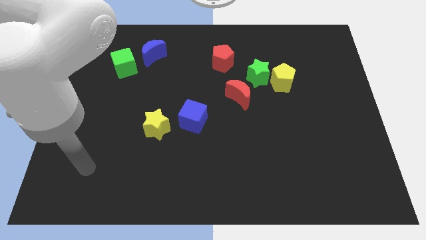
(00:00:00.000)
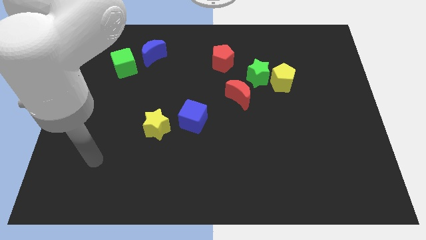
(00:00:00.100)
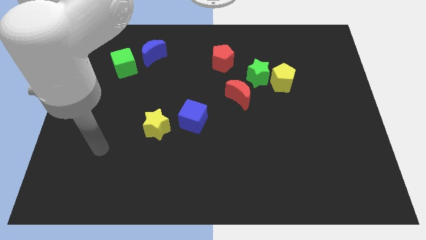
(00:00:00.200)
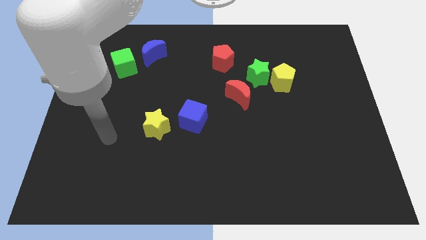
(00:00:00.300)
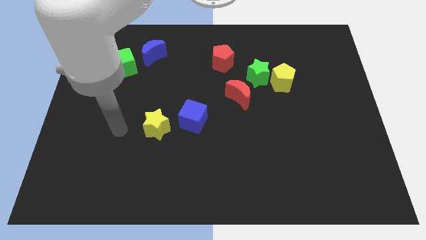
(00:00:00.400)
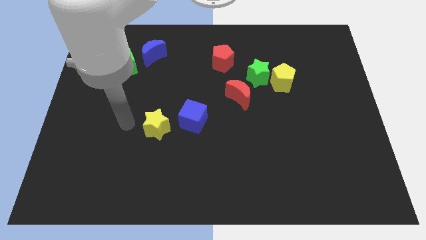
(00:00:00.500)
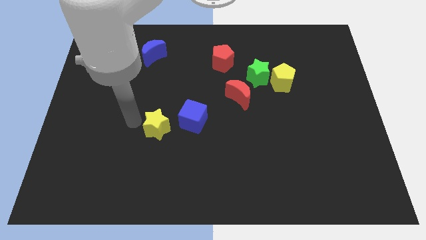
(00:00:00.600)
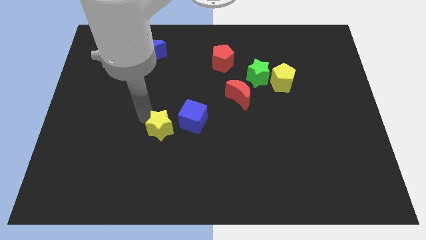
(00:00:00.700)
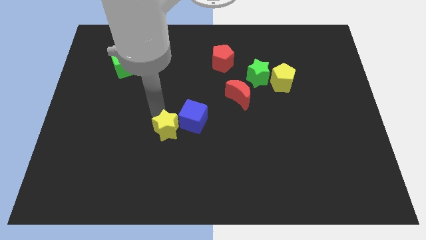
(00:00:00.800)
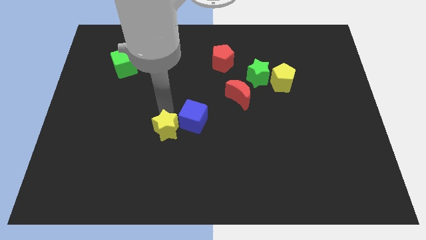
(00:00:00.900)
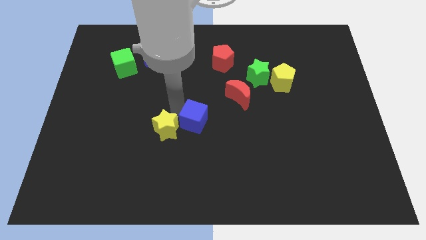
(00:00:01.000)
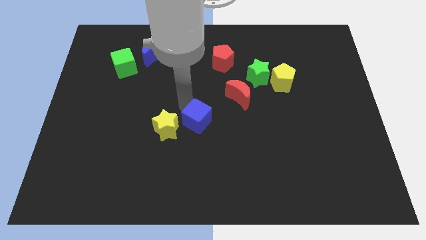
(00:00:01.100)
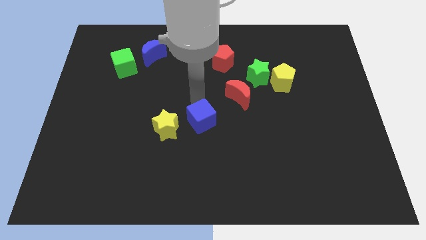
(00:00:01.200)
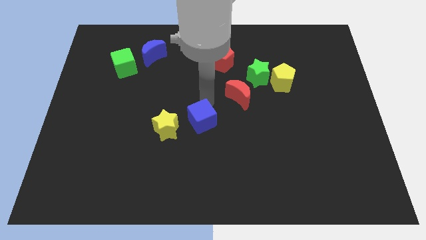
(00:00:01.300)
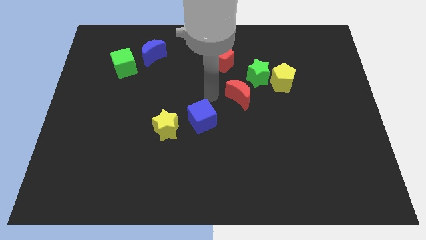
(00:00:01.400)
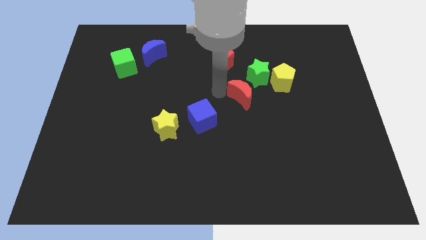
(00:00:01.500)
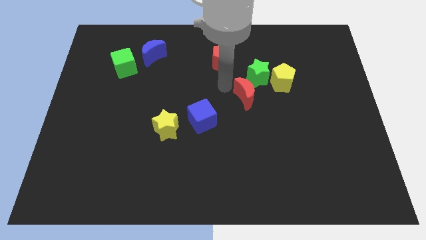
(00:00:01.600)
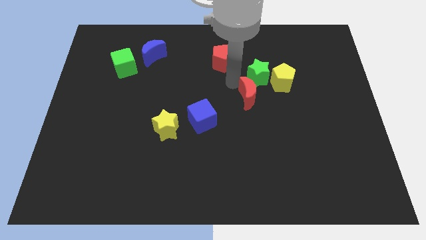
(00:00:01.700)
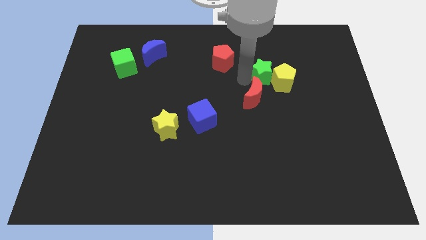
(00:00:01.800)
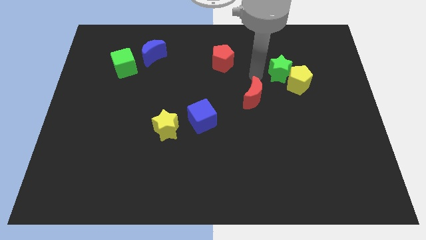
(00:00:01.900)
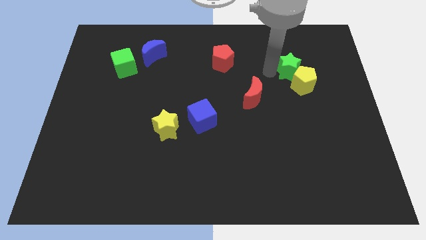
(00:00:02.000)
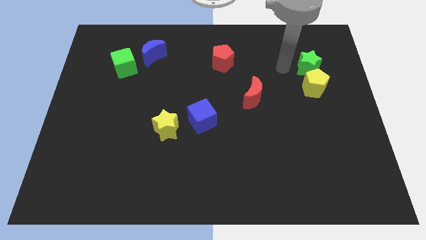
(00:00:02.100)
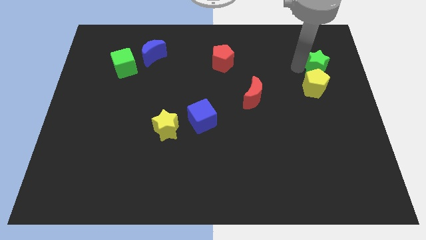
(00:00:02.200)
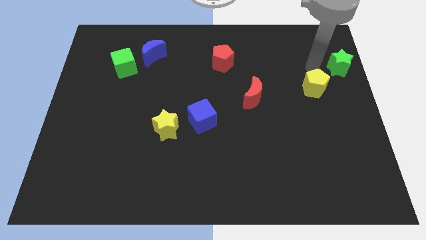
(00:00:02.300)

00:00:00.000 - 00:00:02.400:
move the yellow pentagon away from the green star

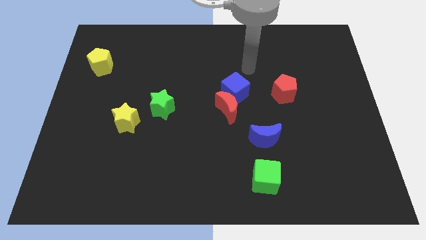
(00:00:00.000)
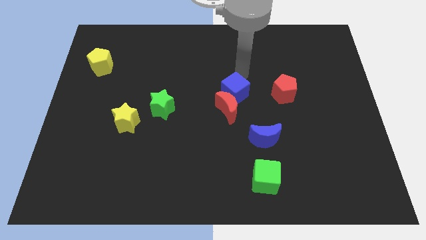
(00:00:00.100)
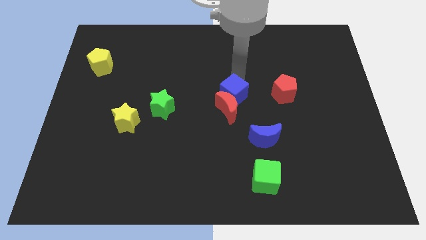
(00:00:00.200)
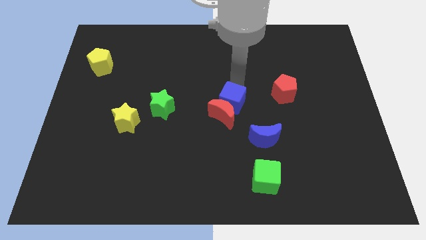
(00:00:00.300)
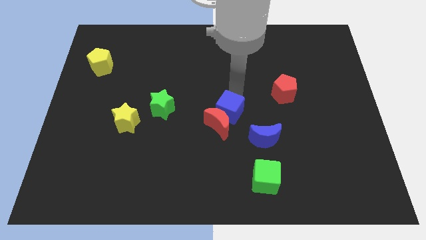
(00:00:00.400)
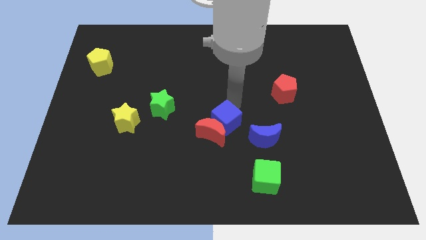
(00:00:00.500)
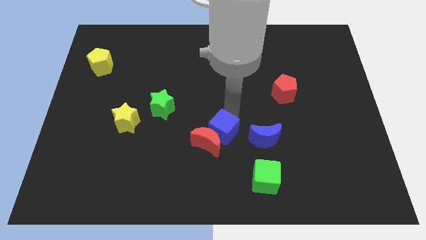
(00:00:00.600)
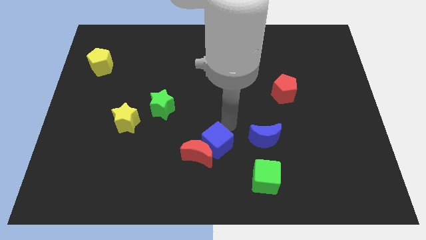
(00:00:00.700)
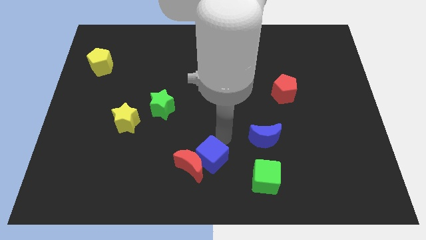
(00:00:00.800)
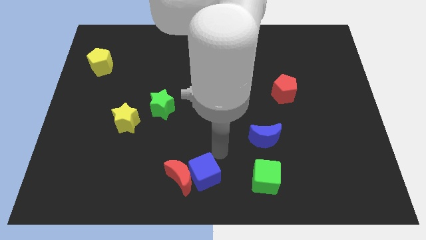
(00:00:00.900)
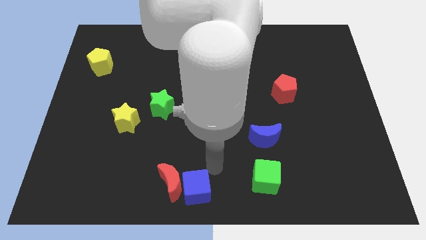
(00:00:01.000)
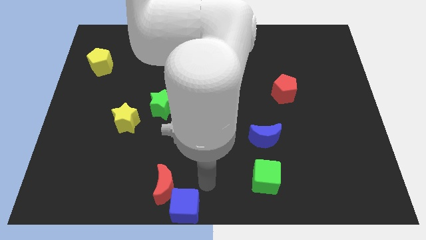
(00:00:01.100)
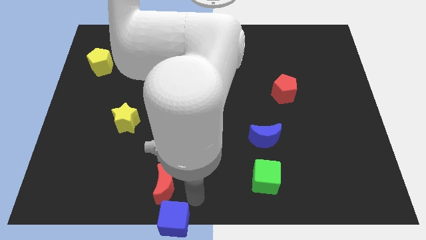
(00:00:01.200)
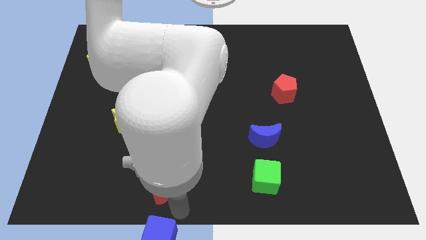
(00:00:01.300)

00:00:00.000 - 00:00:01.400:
separate the red moon from the blue cube

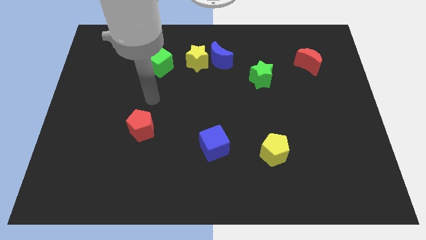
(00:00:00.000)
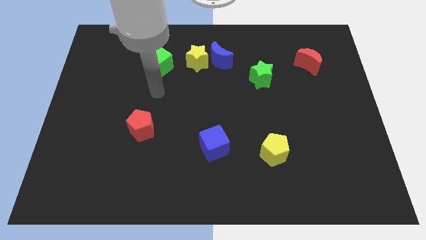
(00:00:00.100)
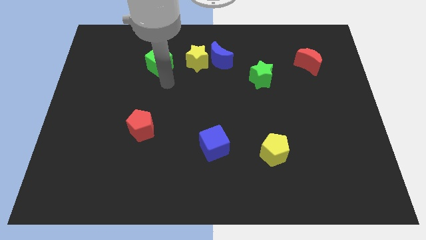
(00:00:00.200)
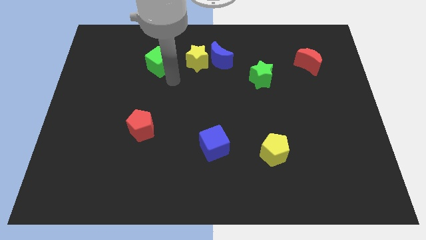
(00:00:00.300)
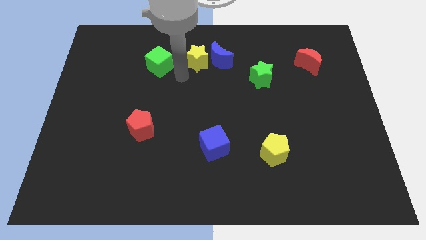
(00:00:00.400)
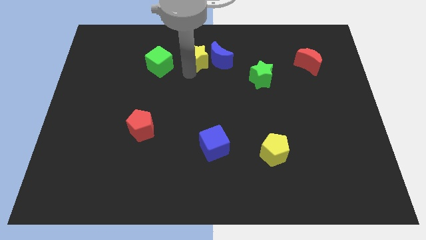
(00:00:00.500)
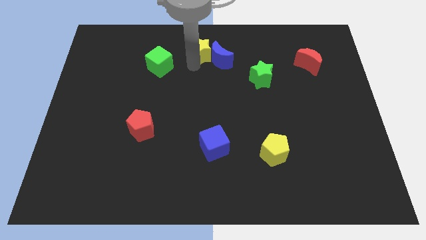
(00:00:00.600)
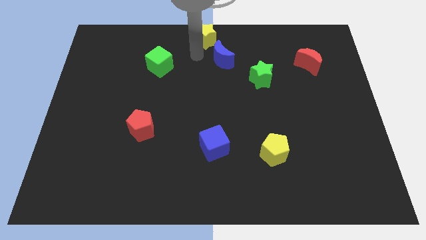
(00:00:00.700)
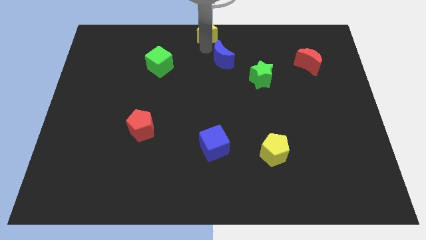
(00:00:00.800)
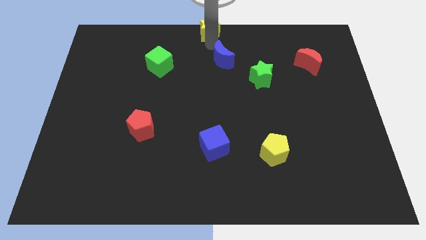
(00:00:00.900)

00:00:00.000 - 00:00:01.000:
separate the blue moon from the yellow star

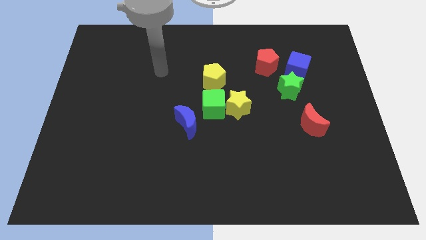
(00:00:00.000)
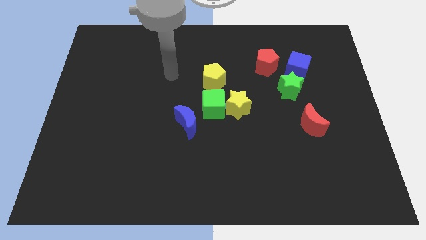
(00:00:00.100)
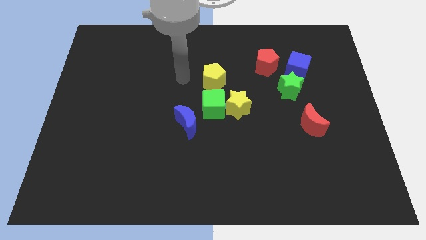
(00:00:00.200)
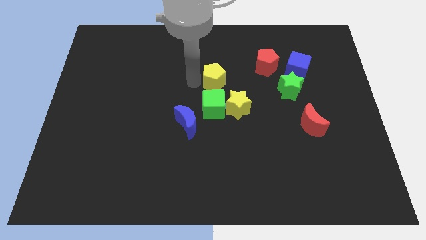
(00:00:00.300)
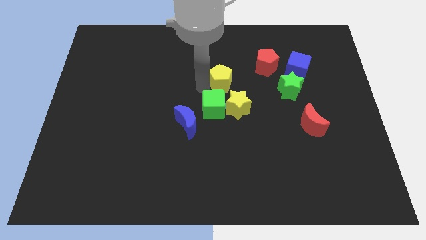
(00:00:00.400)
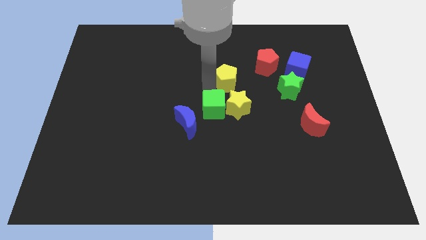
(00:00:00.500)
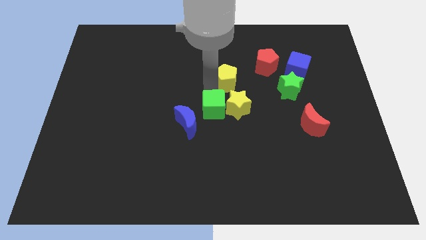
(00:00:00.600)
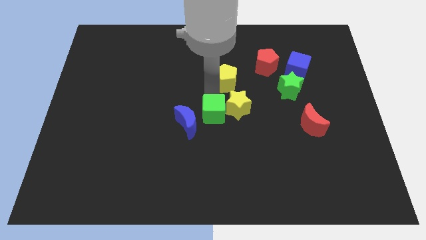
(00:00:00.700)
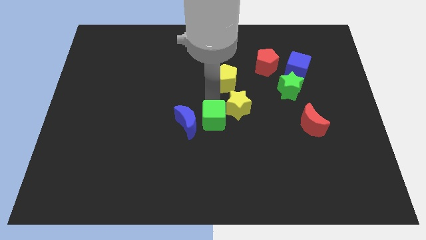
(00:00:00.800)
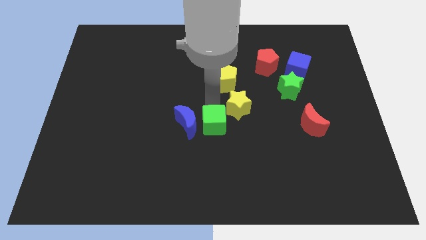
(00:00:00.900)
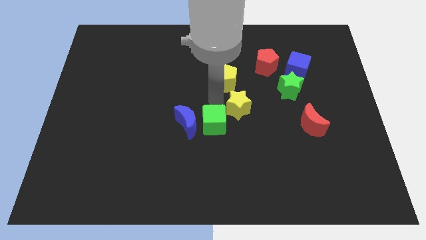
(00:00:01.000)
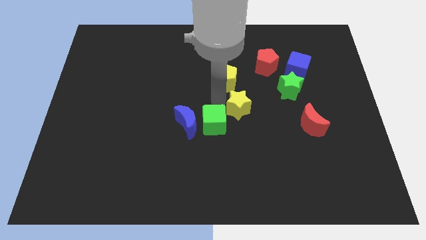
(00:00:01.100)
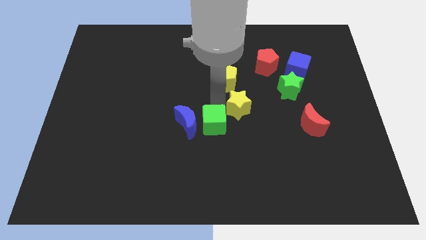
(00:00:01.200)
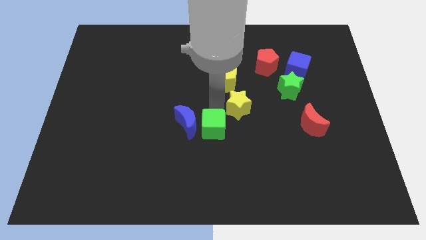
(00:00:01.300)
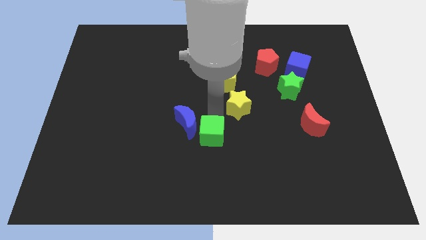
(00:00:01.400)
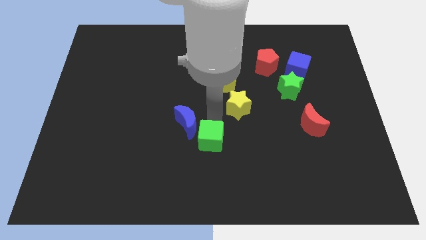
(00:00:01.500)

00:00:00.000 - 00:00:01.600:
move the green cube away from the yellow star, blue moon, and yellow pentagon

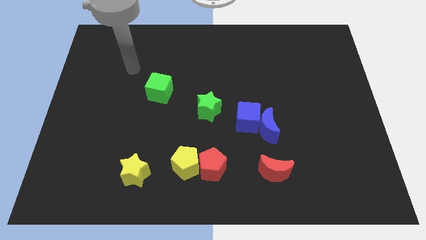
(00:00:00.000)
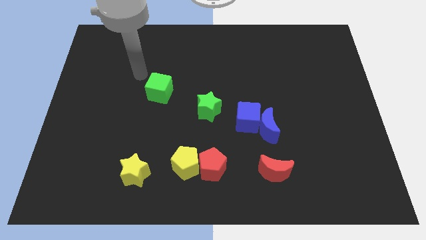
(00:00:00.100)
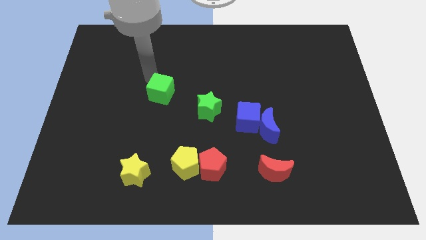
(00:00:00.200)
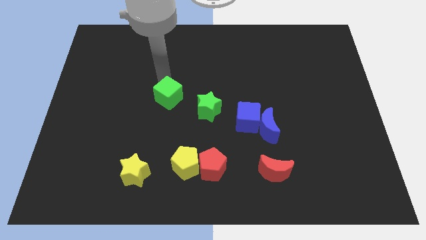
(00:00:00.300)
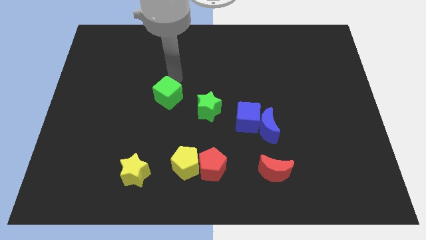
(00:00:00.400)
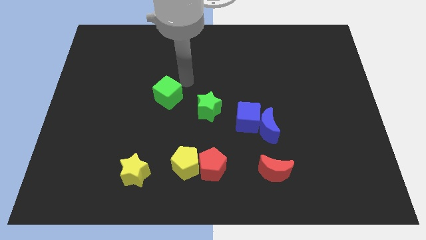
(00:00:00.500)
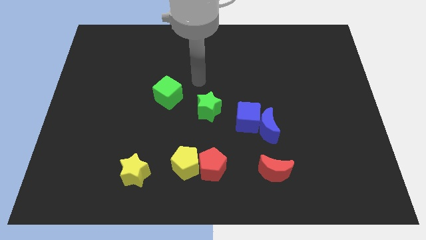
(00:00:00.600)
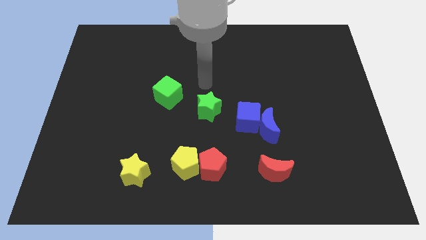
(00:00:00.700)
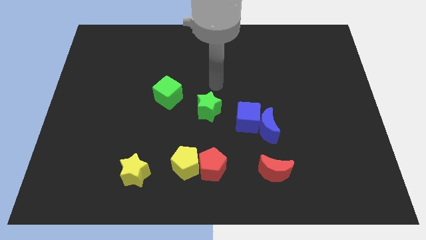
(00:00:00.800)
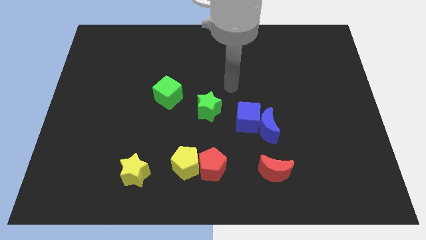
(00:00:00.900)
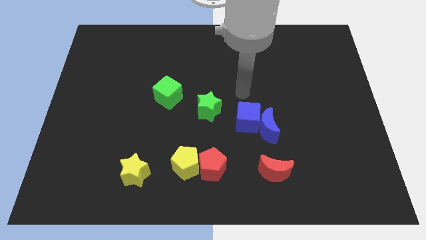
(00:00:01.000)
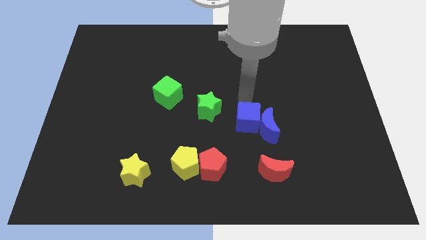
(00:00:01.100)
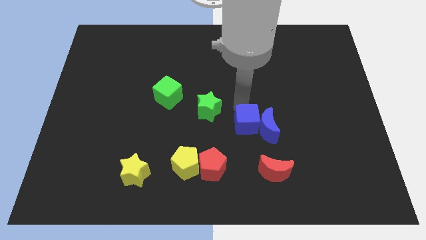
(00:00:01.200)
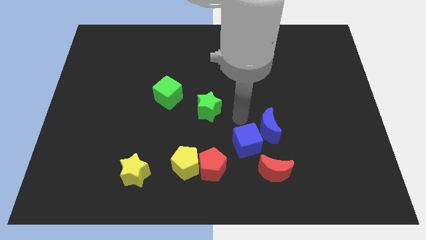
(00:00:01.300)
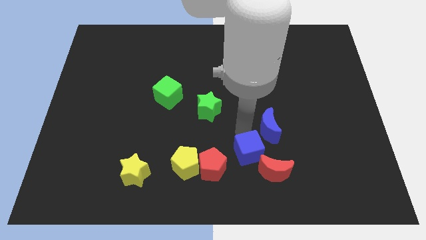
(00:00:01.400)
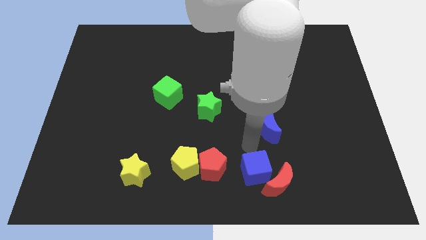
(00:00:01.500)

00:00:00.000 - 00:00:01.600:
move the blue moon away from the blue cube

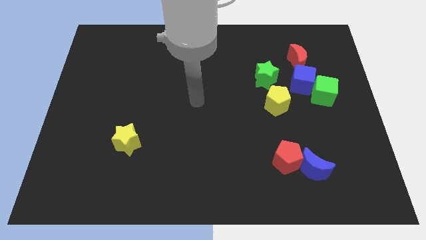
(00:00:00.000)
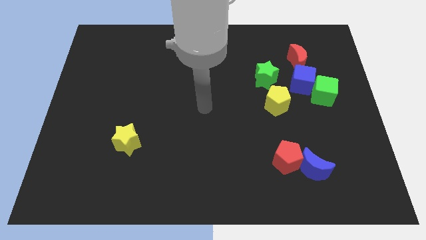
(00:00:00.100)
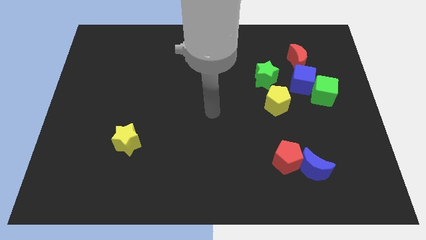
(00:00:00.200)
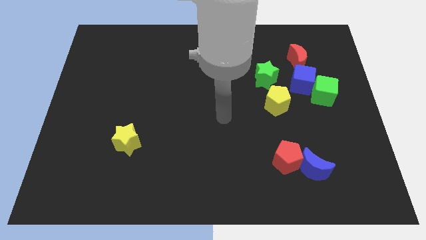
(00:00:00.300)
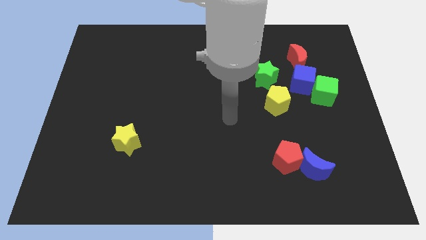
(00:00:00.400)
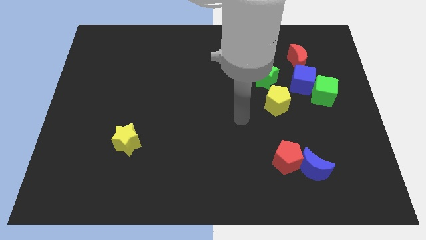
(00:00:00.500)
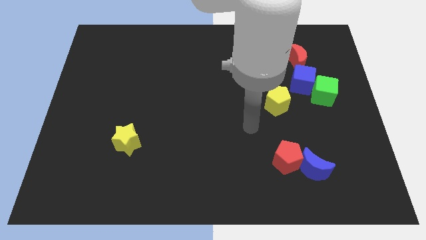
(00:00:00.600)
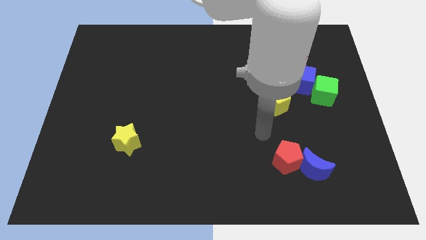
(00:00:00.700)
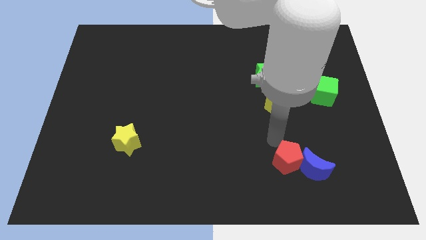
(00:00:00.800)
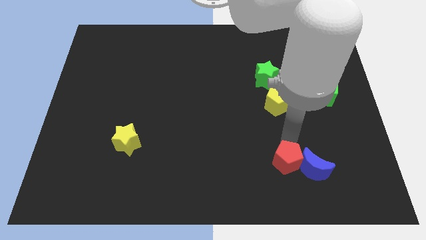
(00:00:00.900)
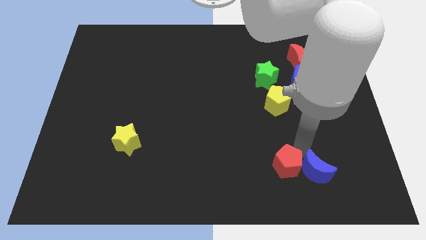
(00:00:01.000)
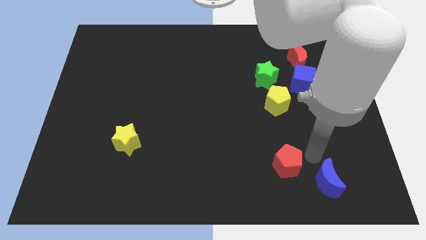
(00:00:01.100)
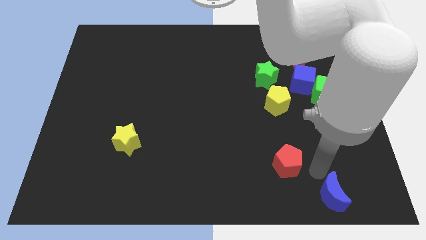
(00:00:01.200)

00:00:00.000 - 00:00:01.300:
move the red pentagon away from the blue moon
